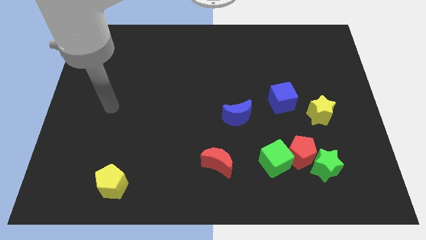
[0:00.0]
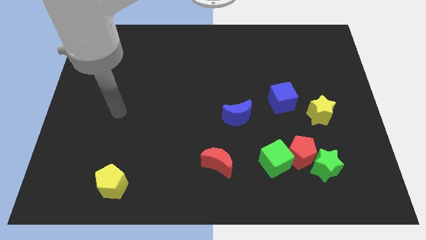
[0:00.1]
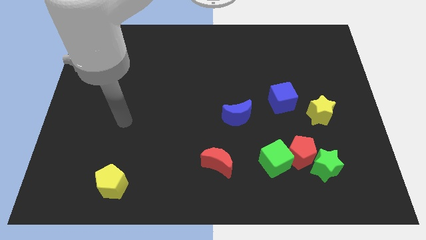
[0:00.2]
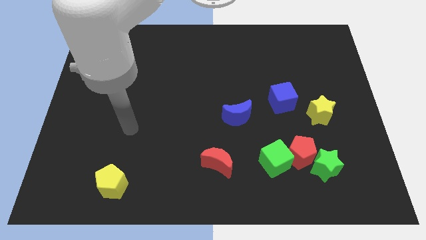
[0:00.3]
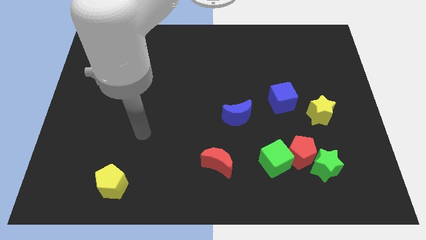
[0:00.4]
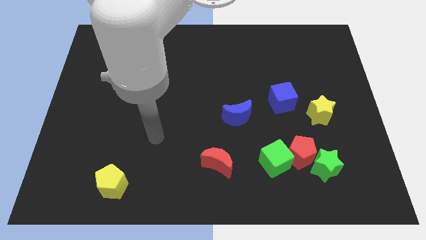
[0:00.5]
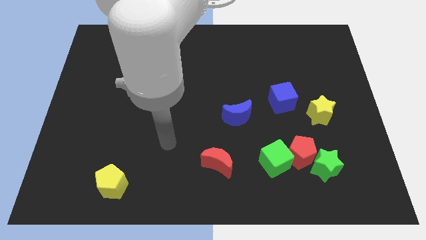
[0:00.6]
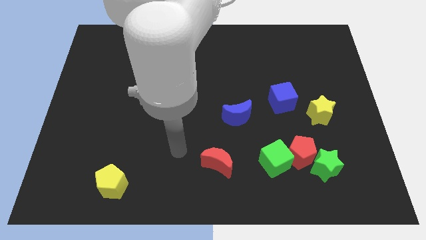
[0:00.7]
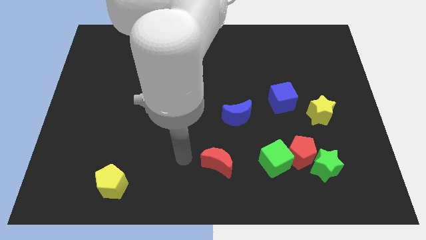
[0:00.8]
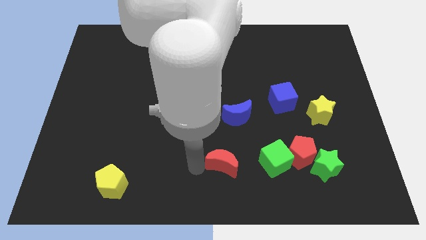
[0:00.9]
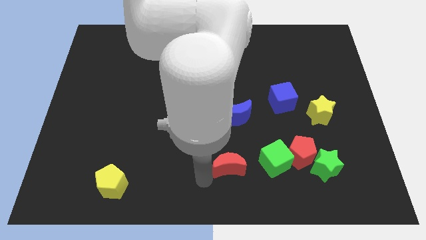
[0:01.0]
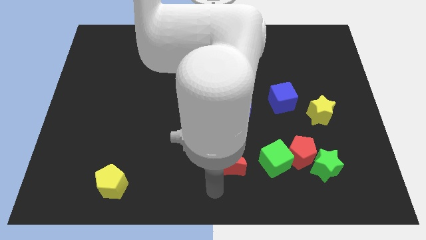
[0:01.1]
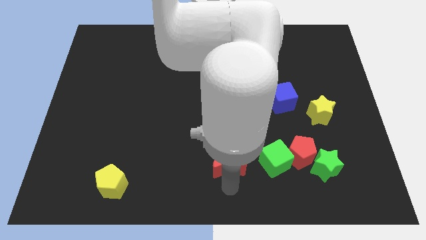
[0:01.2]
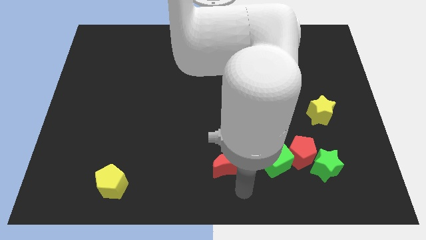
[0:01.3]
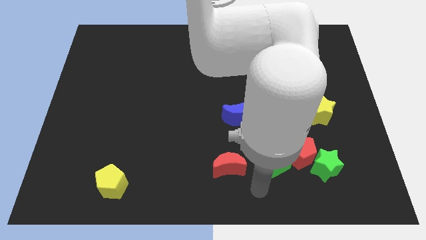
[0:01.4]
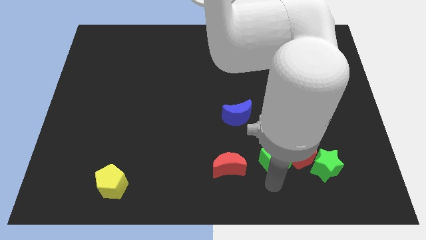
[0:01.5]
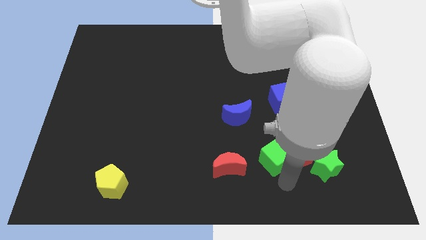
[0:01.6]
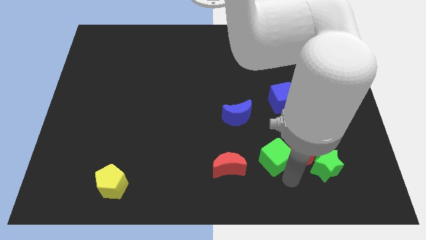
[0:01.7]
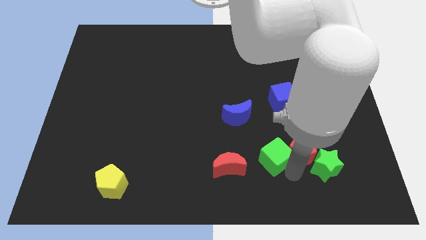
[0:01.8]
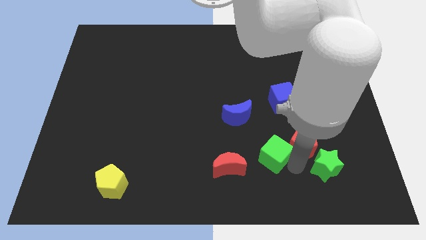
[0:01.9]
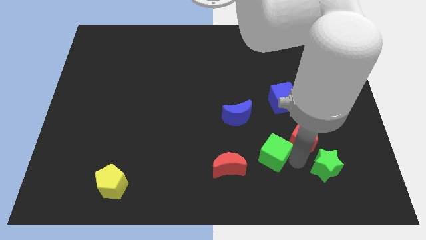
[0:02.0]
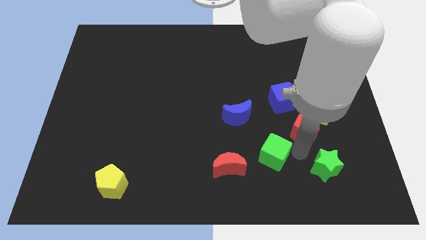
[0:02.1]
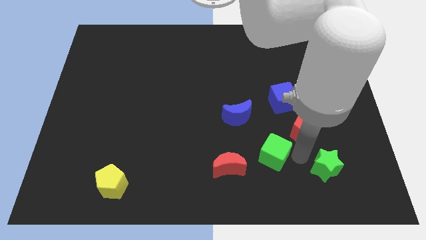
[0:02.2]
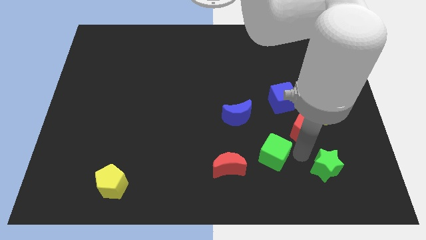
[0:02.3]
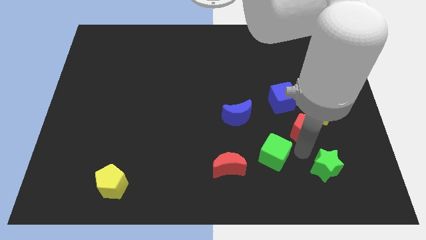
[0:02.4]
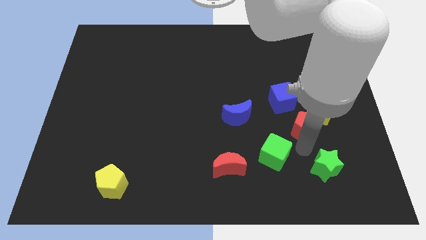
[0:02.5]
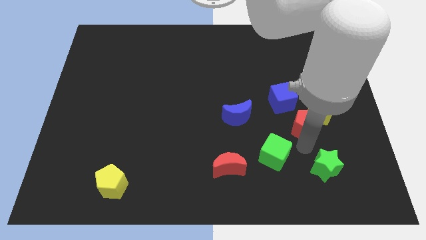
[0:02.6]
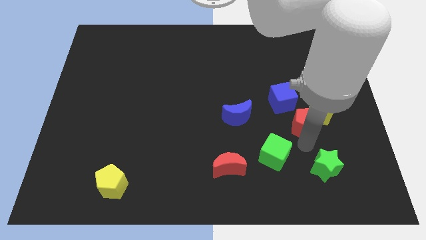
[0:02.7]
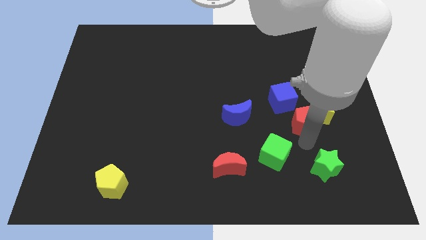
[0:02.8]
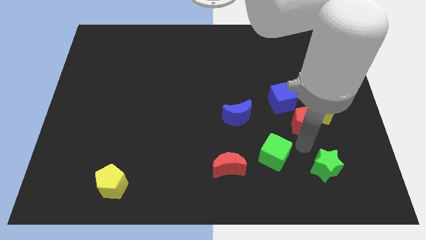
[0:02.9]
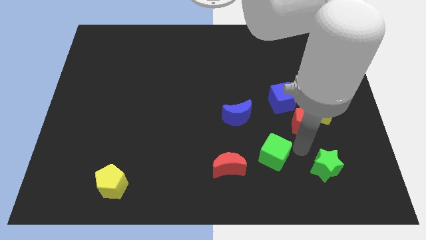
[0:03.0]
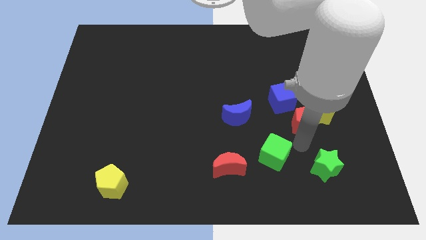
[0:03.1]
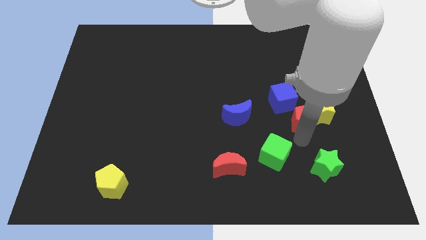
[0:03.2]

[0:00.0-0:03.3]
move the red pentagon away from the green star and green cube

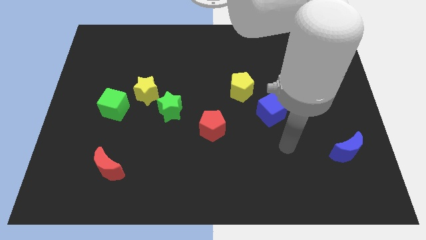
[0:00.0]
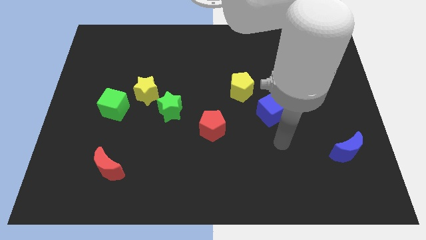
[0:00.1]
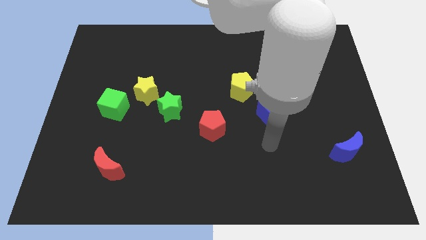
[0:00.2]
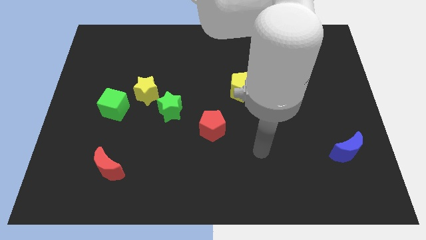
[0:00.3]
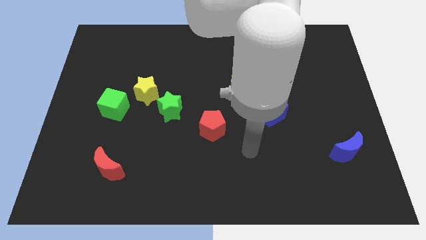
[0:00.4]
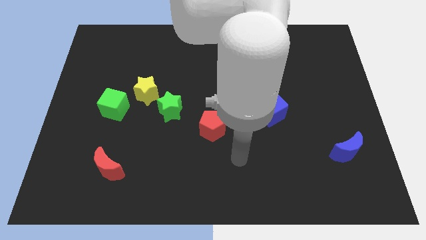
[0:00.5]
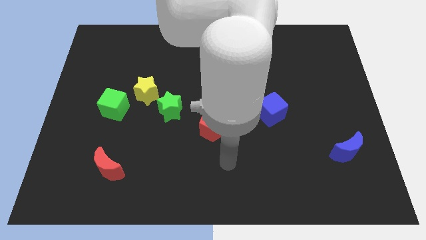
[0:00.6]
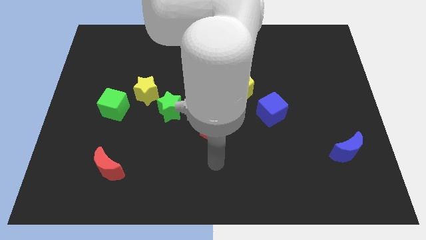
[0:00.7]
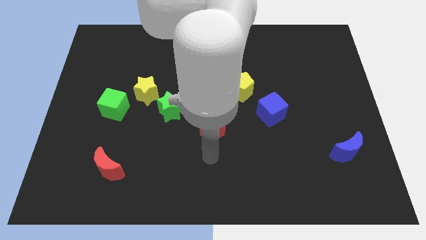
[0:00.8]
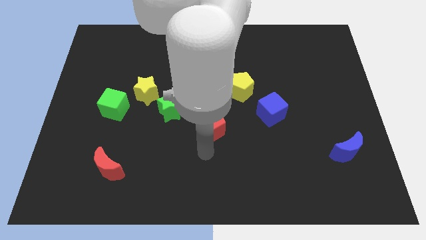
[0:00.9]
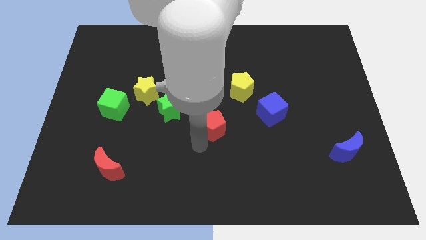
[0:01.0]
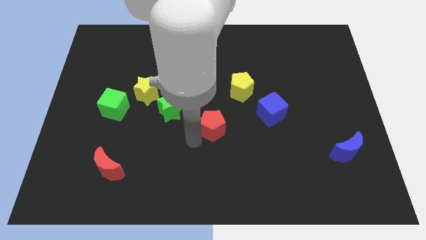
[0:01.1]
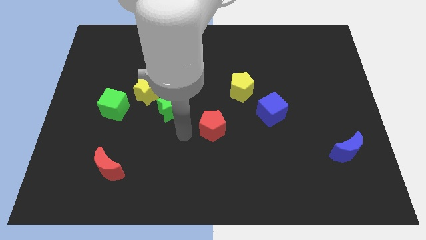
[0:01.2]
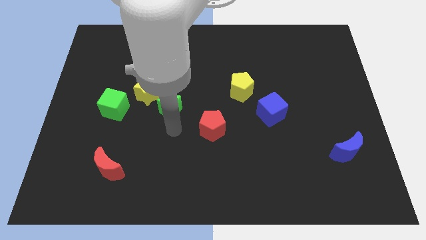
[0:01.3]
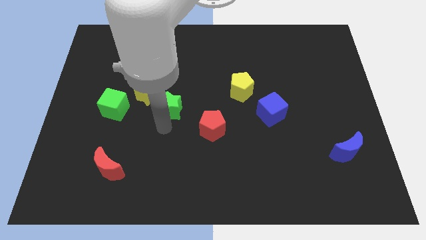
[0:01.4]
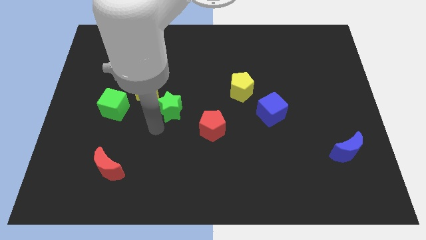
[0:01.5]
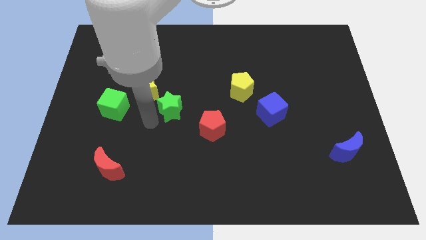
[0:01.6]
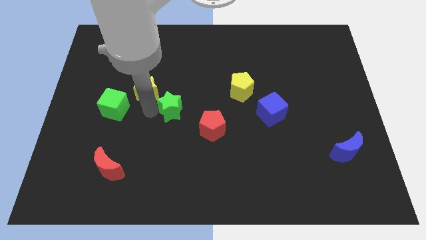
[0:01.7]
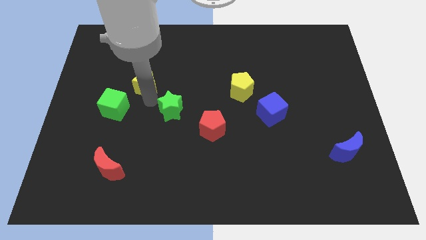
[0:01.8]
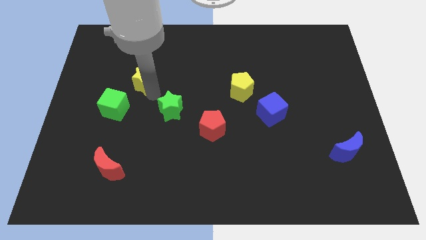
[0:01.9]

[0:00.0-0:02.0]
move the green star away from the yellow star

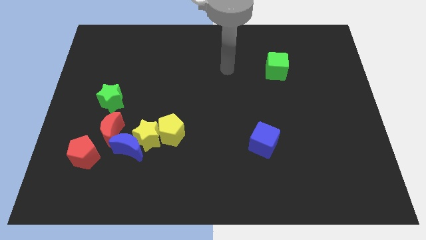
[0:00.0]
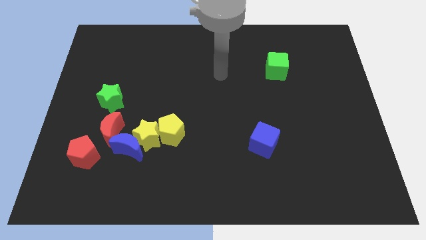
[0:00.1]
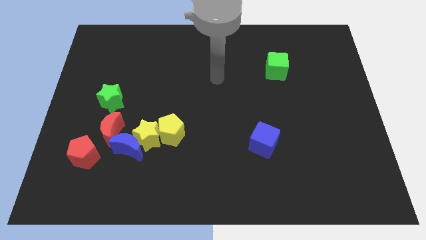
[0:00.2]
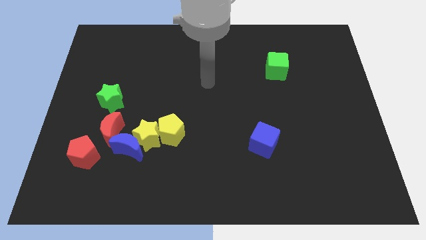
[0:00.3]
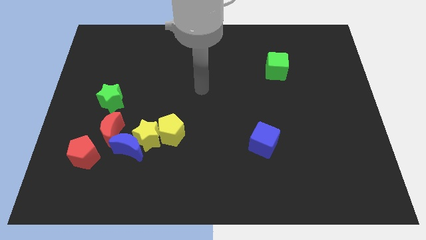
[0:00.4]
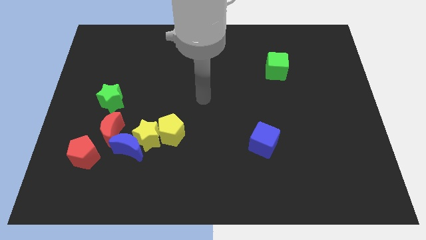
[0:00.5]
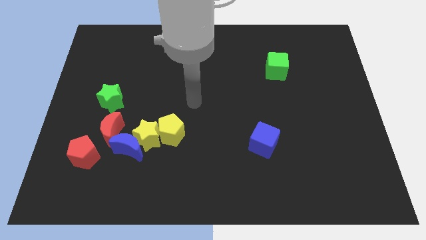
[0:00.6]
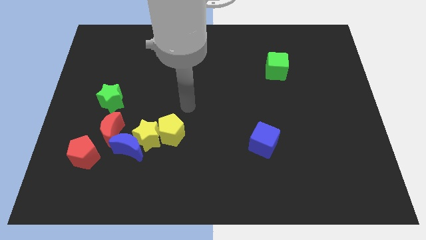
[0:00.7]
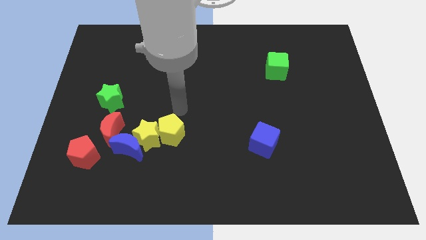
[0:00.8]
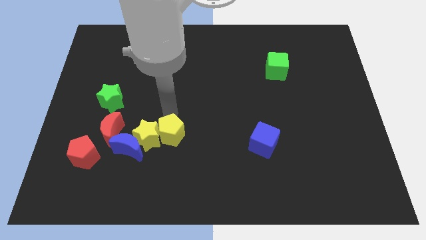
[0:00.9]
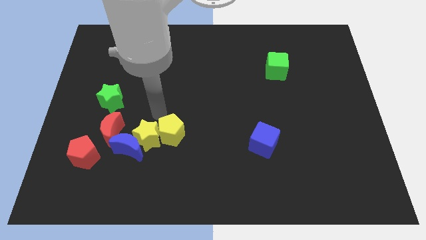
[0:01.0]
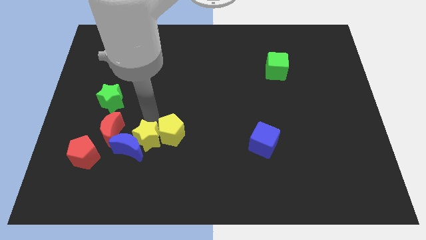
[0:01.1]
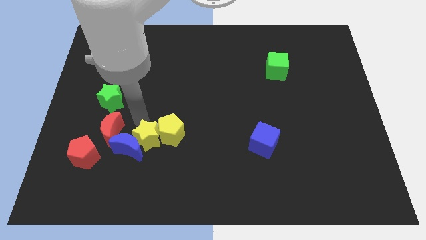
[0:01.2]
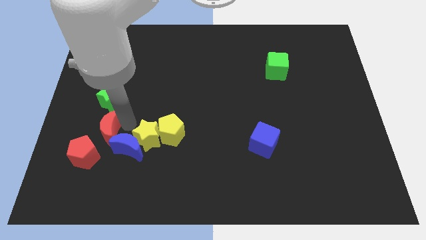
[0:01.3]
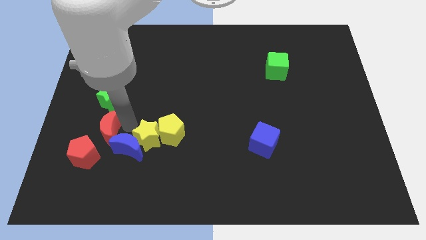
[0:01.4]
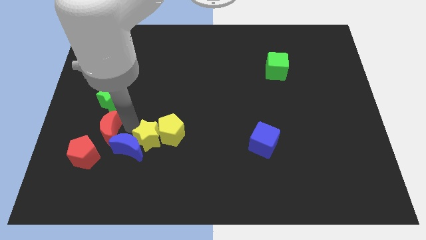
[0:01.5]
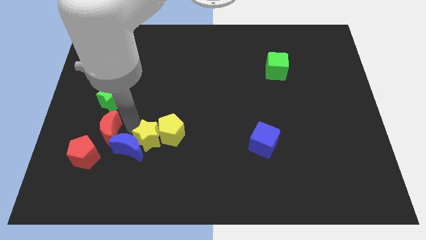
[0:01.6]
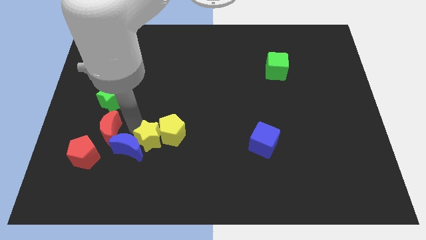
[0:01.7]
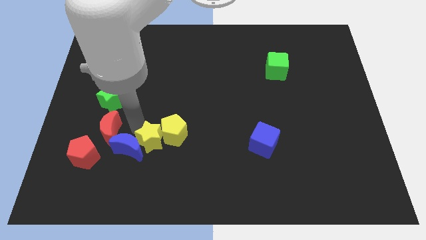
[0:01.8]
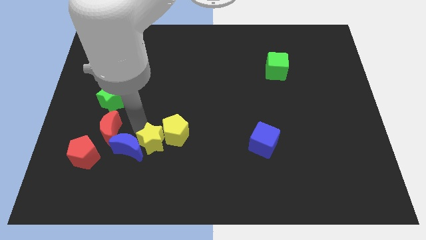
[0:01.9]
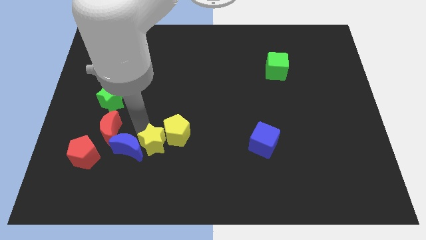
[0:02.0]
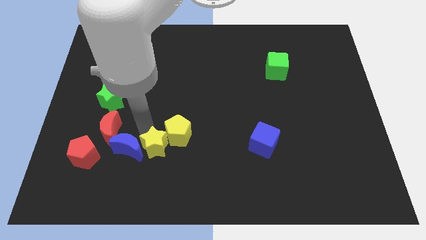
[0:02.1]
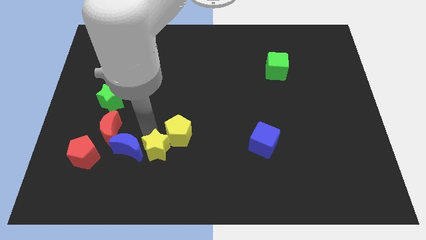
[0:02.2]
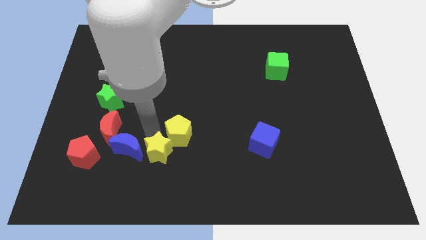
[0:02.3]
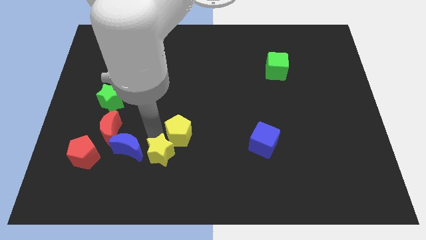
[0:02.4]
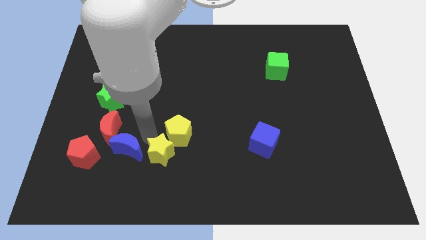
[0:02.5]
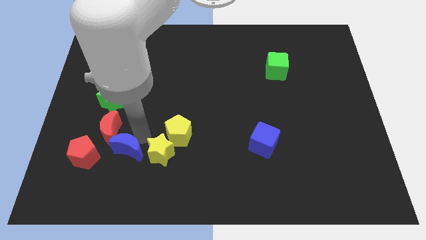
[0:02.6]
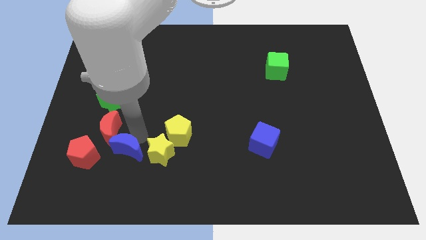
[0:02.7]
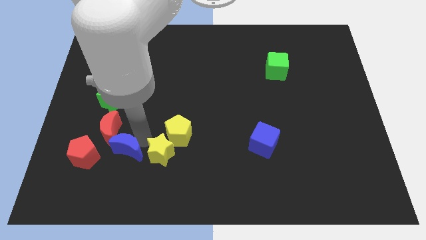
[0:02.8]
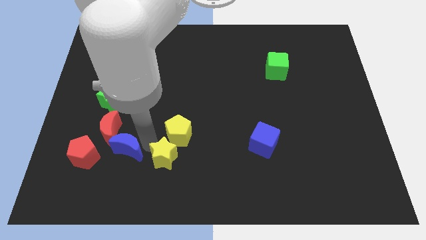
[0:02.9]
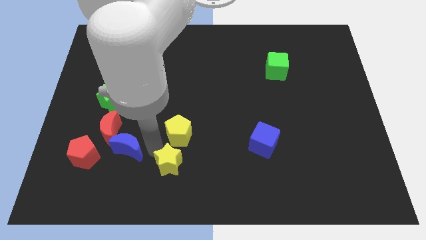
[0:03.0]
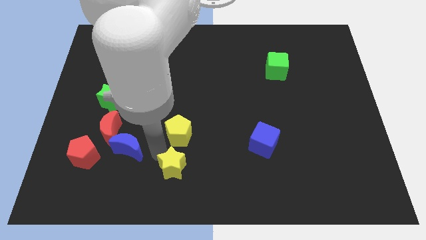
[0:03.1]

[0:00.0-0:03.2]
pull the yellow star apart from the blue moon, yellow pentagon, and red moon

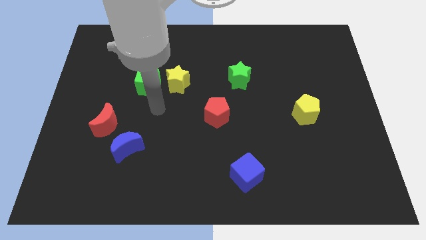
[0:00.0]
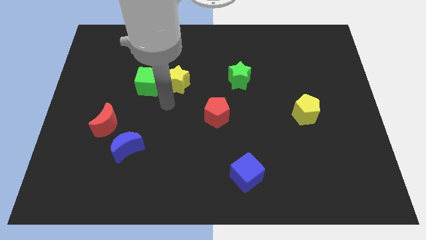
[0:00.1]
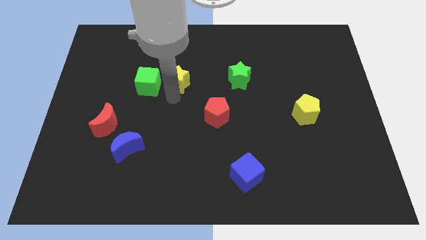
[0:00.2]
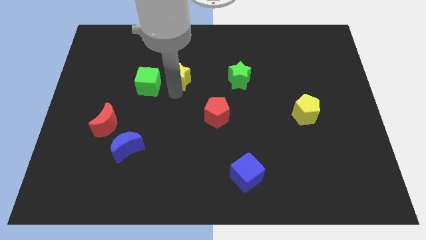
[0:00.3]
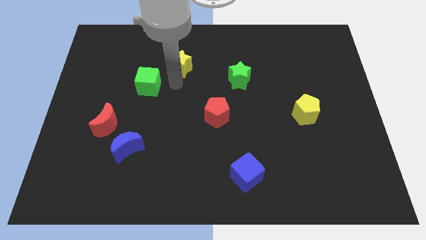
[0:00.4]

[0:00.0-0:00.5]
move the green cube away from the yellow star

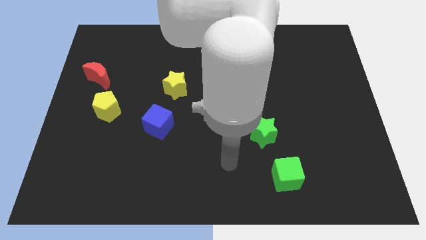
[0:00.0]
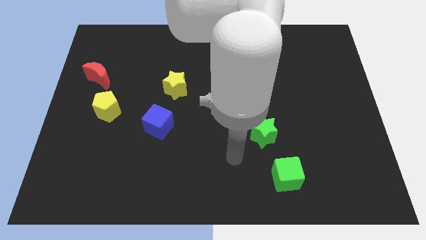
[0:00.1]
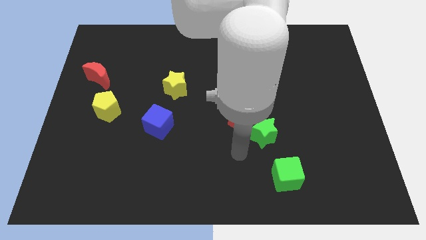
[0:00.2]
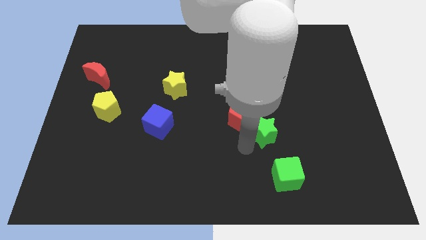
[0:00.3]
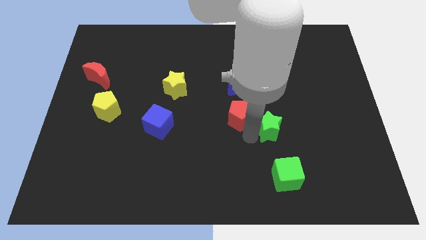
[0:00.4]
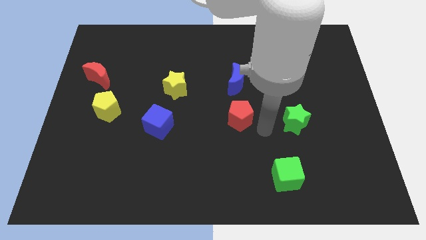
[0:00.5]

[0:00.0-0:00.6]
move the red pentagon away from the green star
